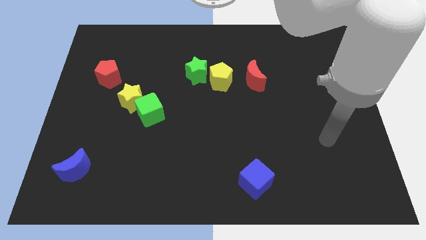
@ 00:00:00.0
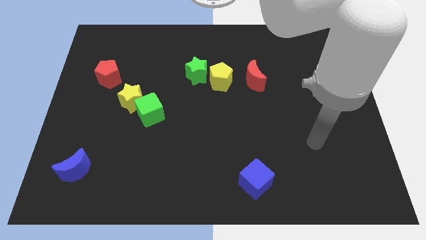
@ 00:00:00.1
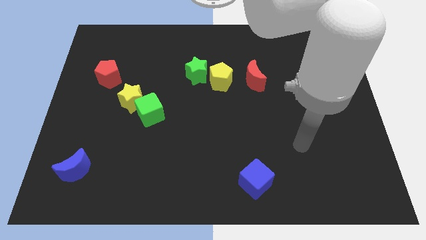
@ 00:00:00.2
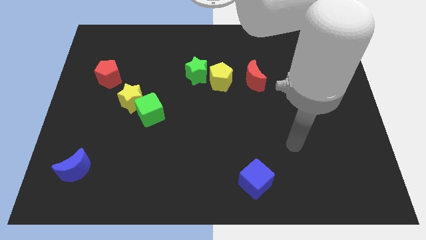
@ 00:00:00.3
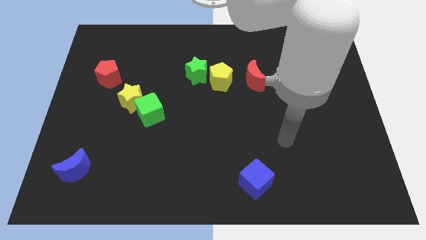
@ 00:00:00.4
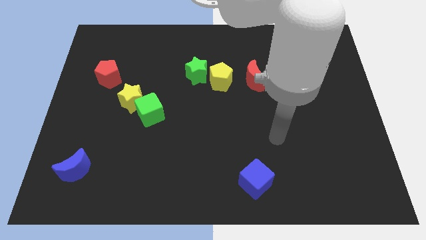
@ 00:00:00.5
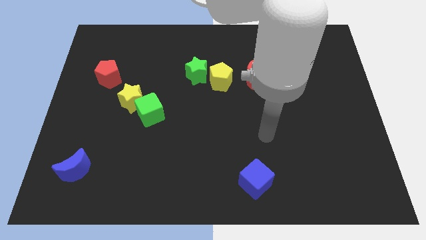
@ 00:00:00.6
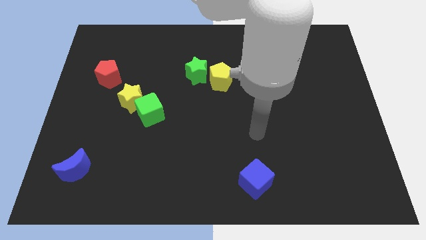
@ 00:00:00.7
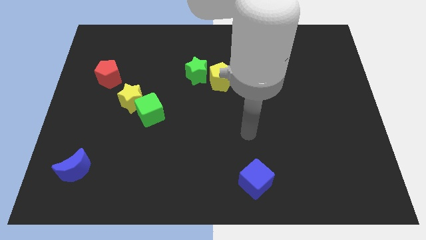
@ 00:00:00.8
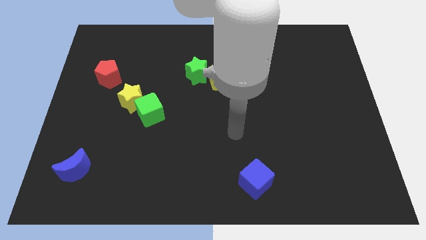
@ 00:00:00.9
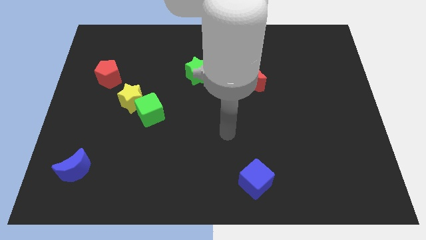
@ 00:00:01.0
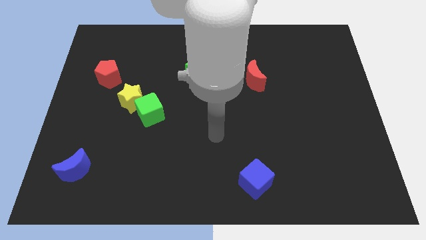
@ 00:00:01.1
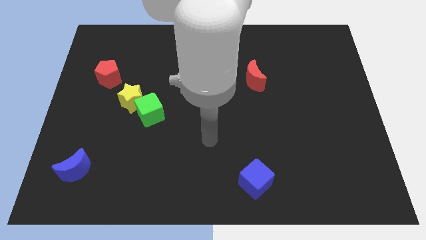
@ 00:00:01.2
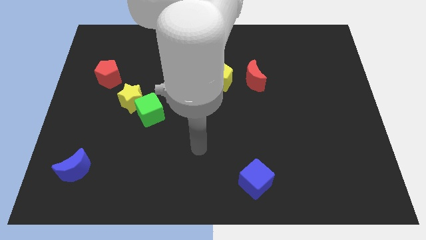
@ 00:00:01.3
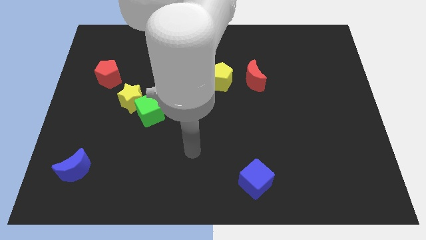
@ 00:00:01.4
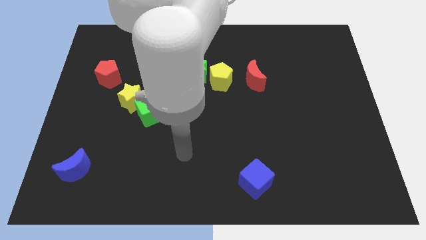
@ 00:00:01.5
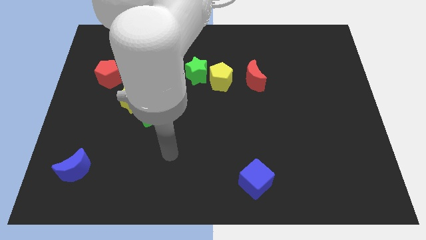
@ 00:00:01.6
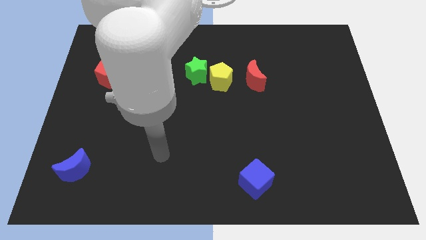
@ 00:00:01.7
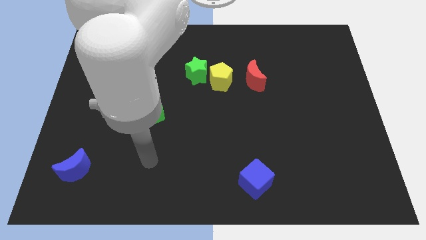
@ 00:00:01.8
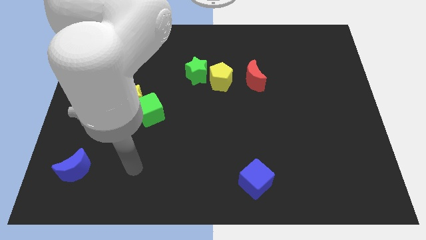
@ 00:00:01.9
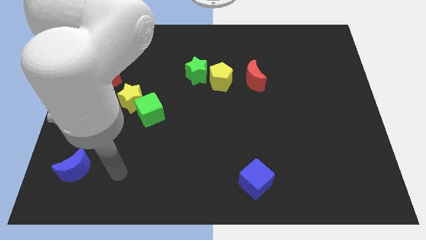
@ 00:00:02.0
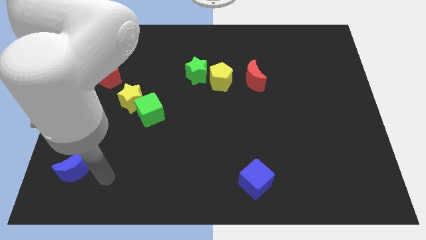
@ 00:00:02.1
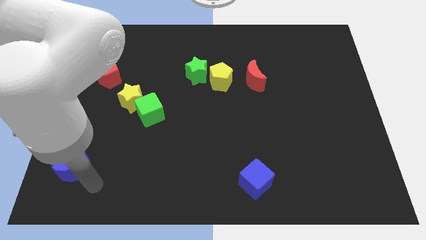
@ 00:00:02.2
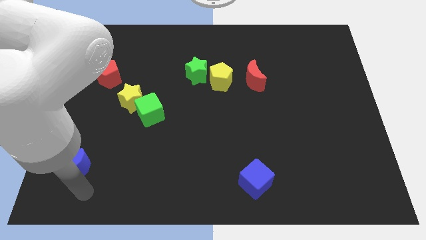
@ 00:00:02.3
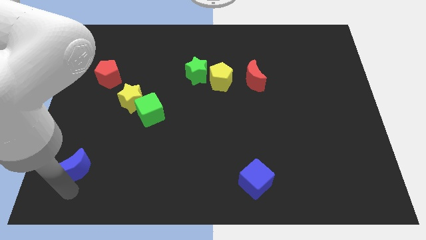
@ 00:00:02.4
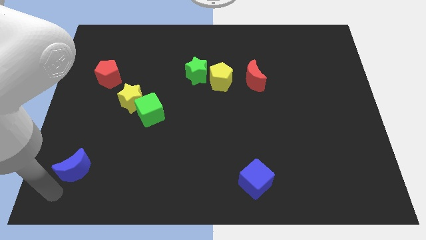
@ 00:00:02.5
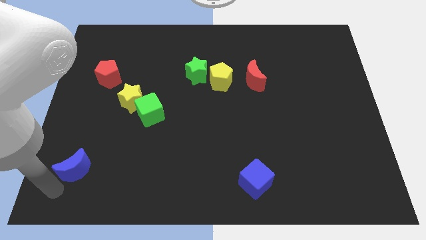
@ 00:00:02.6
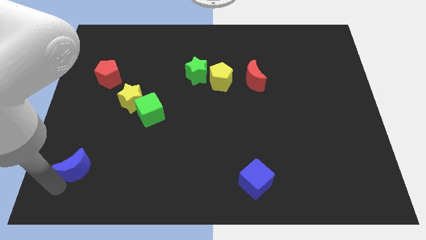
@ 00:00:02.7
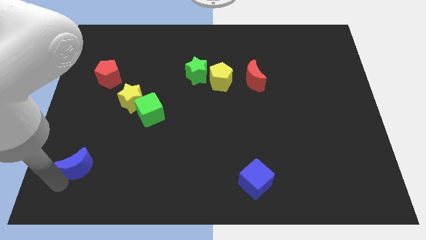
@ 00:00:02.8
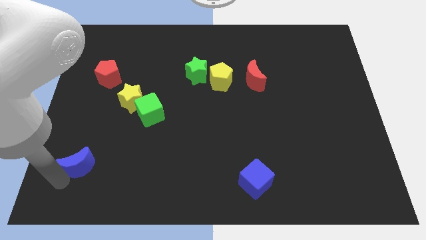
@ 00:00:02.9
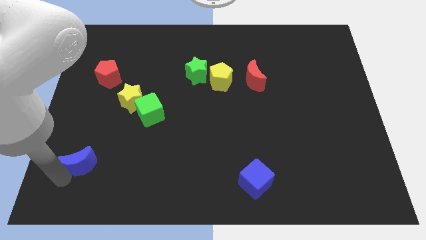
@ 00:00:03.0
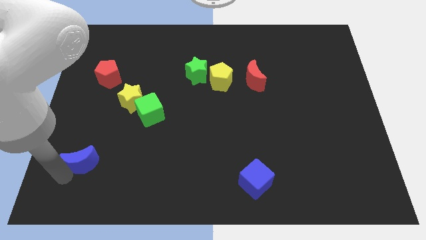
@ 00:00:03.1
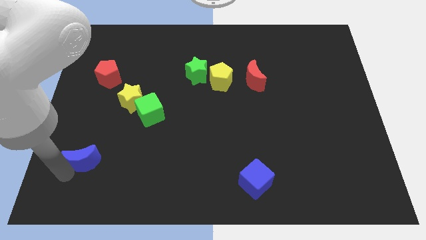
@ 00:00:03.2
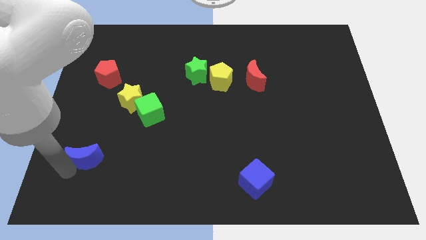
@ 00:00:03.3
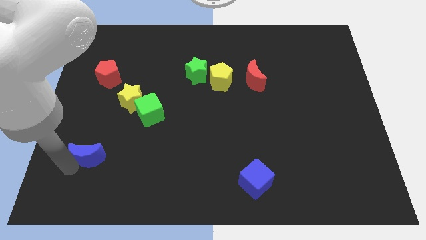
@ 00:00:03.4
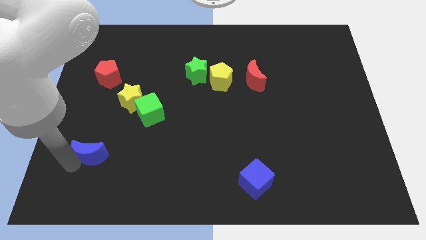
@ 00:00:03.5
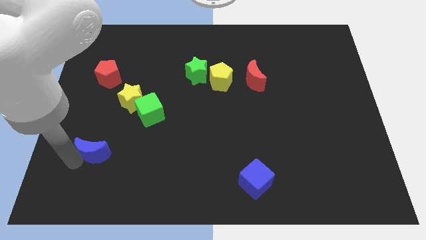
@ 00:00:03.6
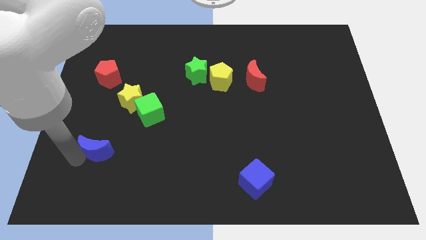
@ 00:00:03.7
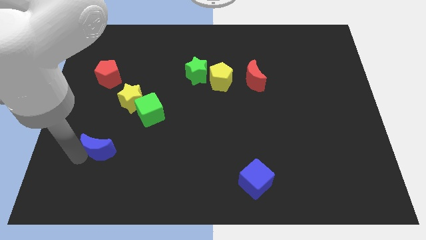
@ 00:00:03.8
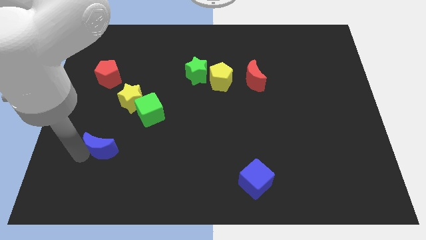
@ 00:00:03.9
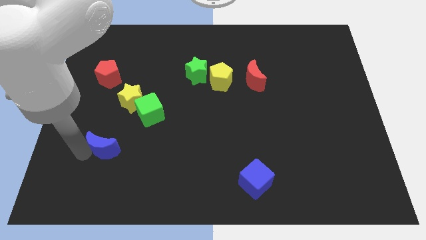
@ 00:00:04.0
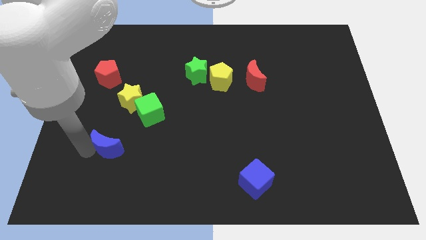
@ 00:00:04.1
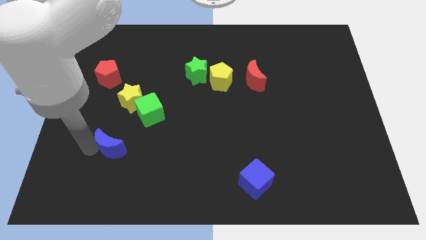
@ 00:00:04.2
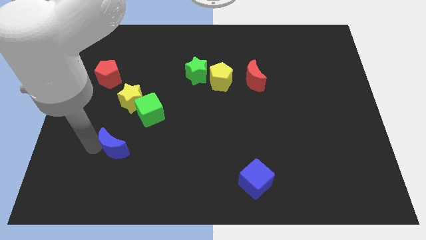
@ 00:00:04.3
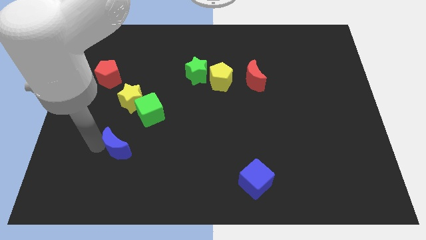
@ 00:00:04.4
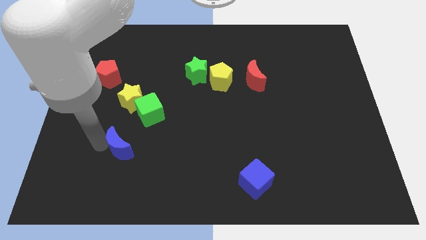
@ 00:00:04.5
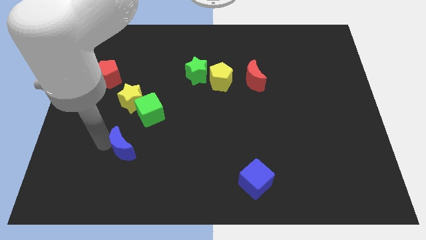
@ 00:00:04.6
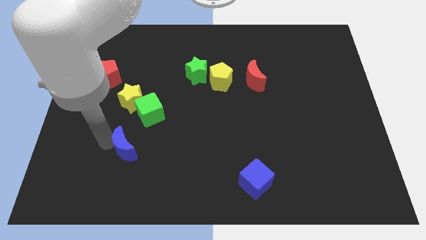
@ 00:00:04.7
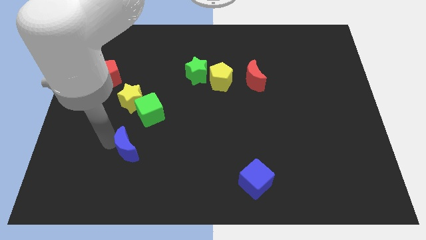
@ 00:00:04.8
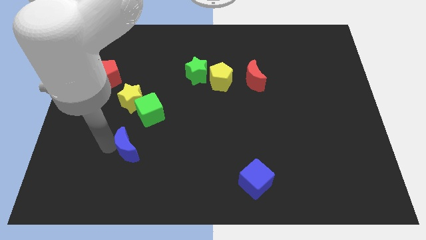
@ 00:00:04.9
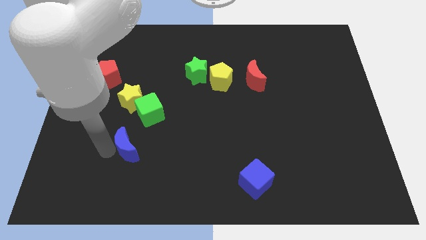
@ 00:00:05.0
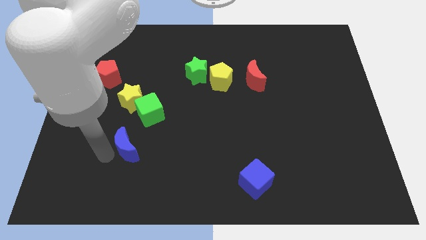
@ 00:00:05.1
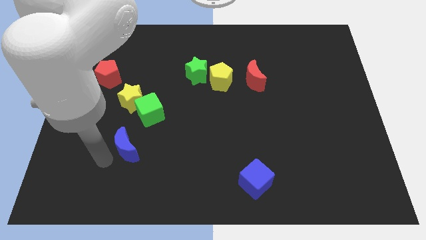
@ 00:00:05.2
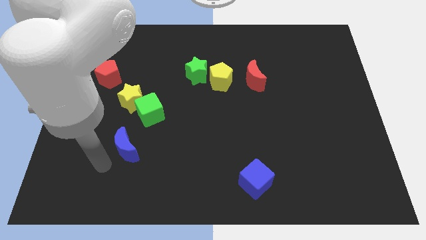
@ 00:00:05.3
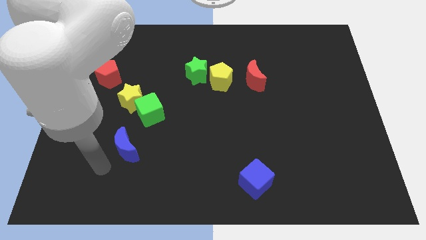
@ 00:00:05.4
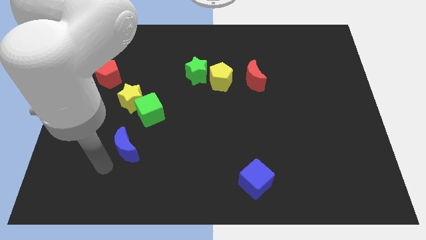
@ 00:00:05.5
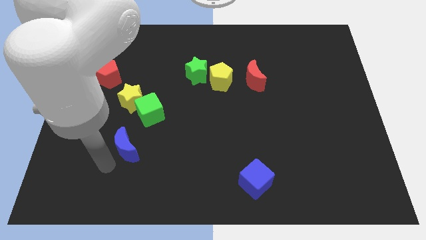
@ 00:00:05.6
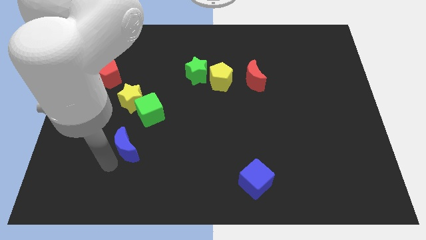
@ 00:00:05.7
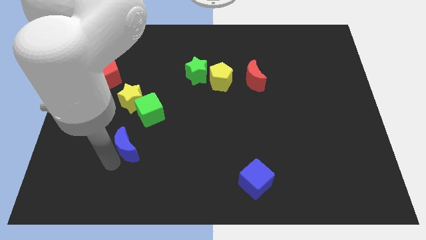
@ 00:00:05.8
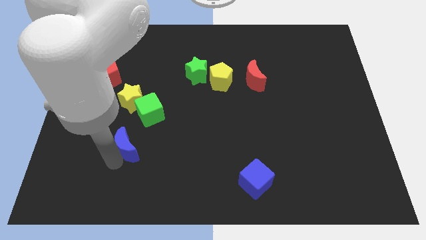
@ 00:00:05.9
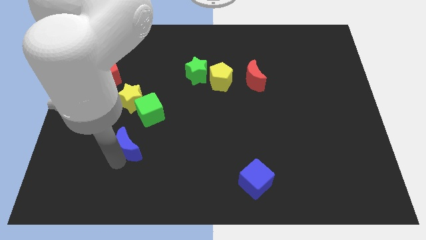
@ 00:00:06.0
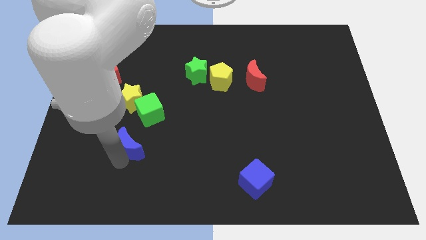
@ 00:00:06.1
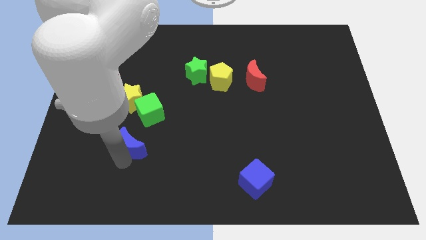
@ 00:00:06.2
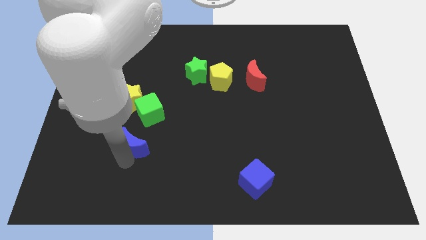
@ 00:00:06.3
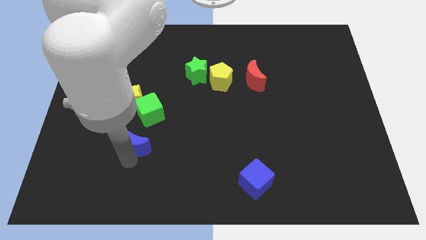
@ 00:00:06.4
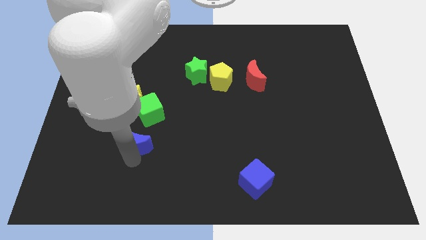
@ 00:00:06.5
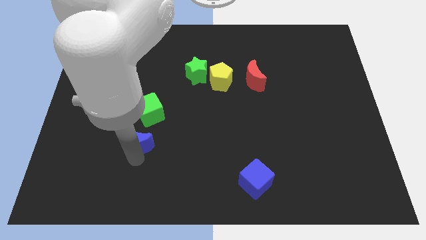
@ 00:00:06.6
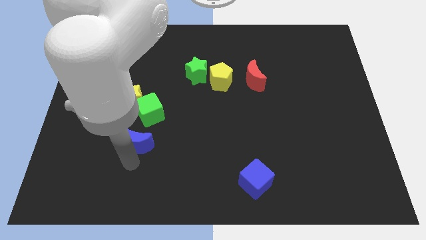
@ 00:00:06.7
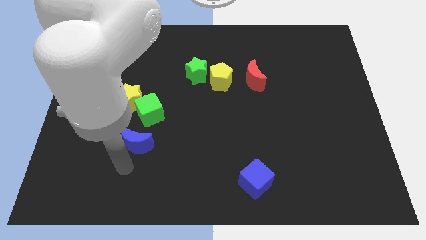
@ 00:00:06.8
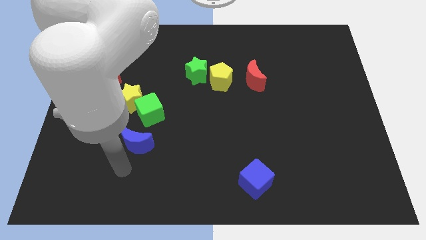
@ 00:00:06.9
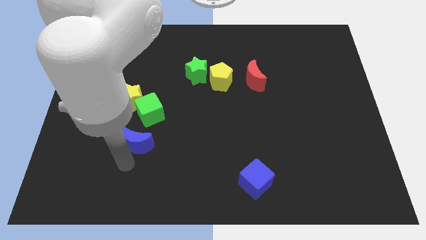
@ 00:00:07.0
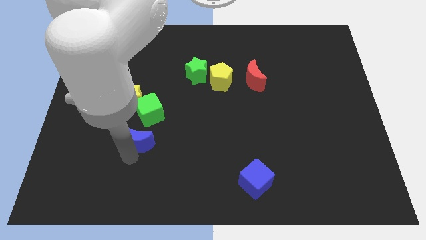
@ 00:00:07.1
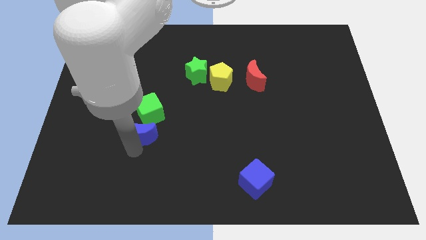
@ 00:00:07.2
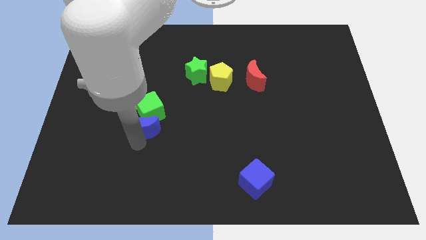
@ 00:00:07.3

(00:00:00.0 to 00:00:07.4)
push the blue moon diagonally down and to the right of the yellow star
